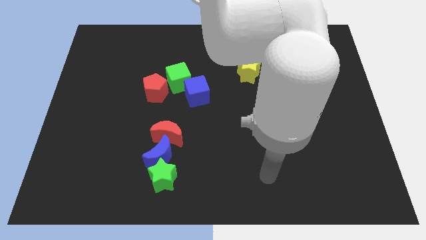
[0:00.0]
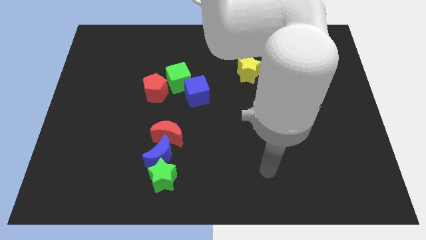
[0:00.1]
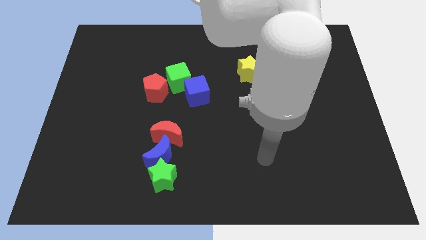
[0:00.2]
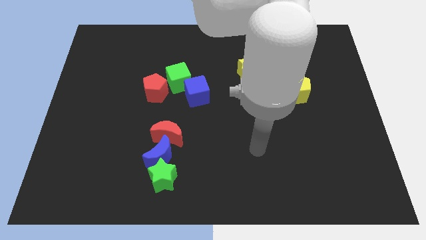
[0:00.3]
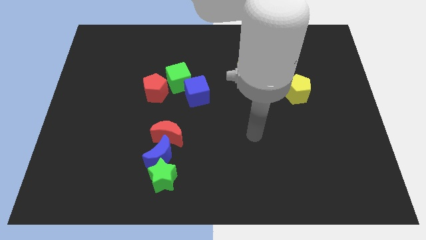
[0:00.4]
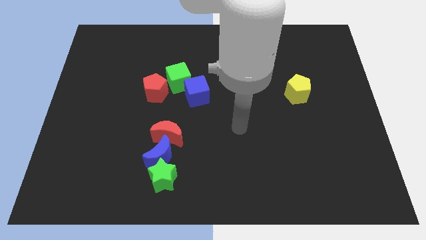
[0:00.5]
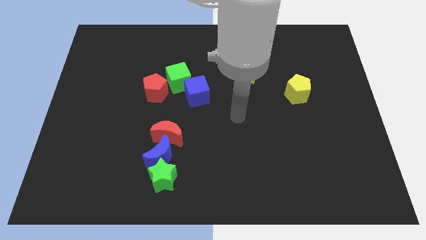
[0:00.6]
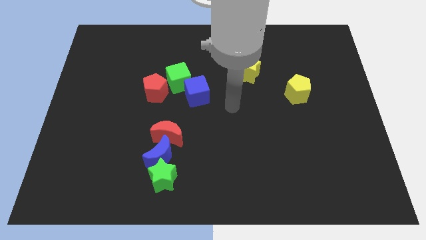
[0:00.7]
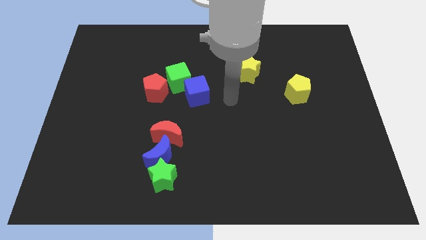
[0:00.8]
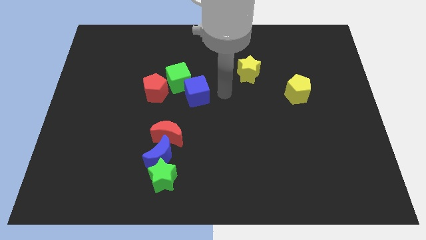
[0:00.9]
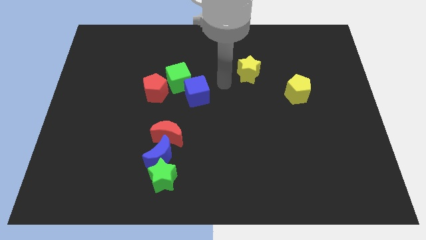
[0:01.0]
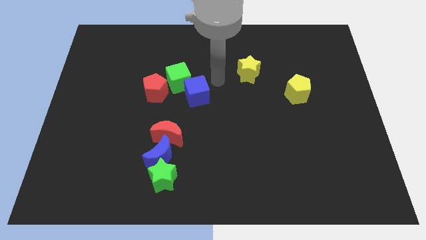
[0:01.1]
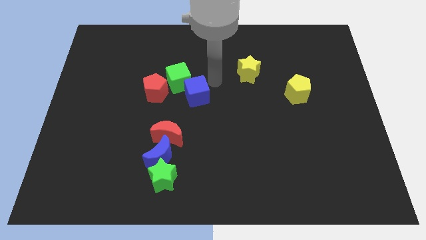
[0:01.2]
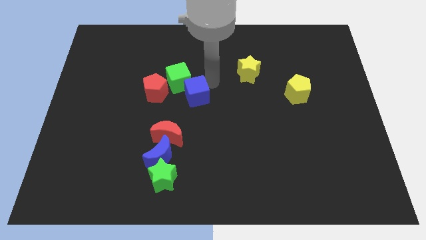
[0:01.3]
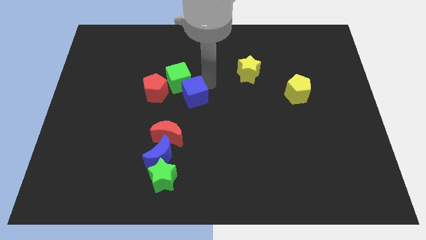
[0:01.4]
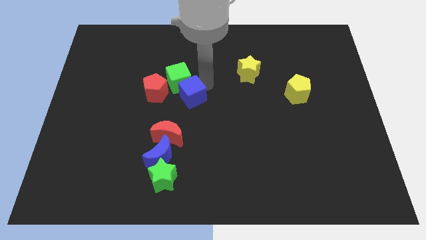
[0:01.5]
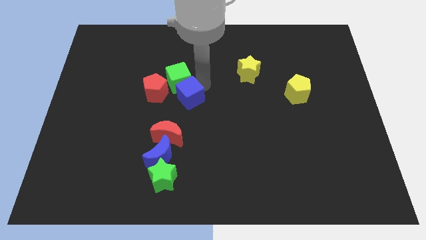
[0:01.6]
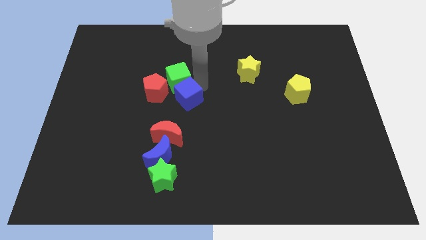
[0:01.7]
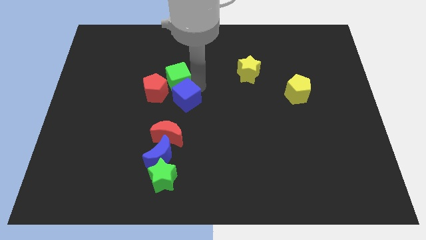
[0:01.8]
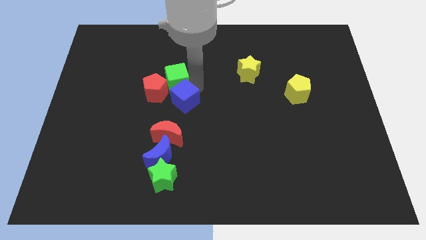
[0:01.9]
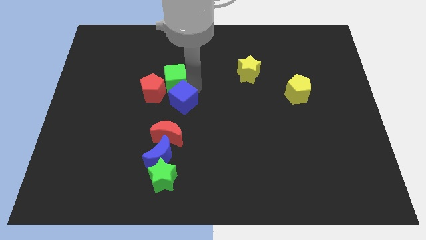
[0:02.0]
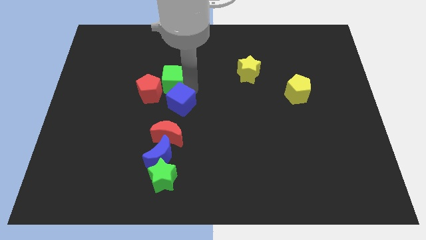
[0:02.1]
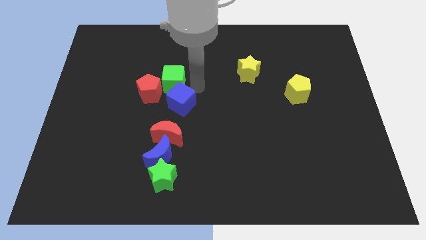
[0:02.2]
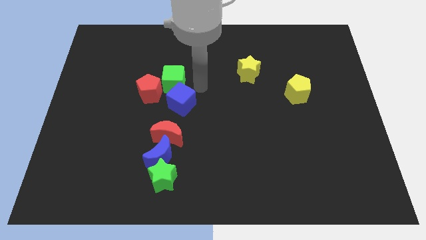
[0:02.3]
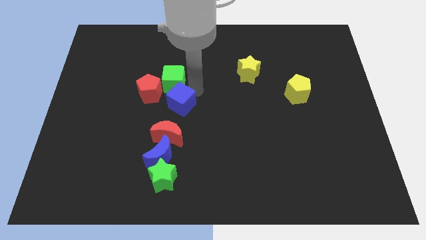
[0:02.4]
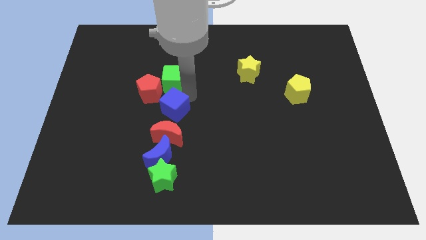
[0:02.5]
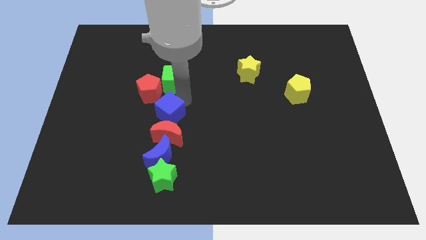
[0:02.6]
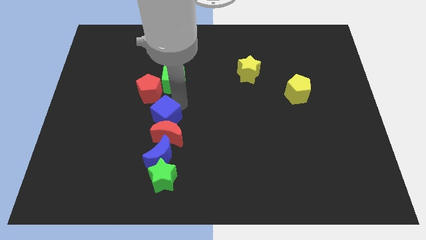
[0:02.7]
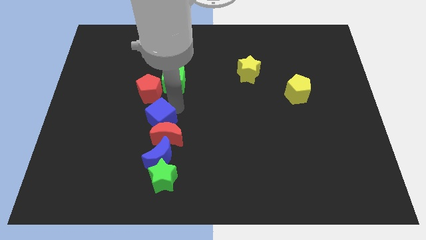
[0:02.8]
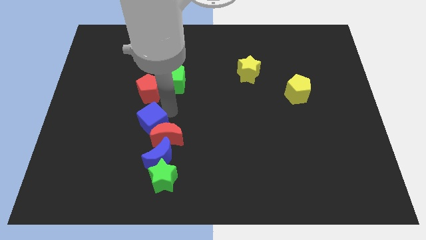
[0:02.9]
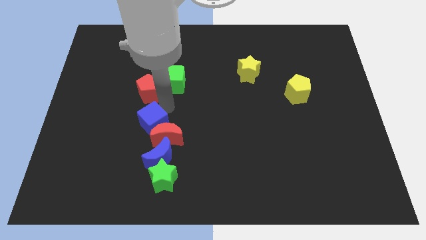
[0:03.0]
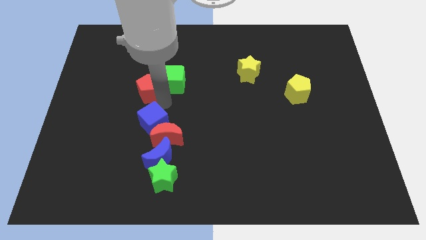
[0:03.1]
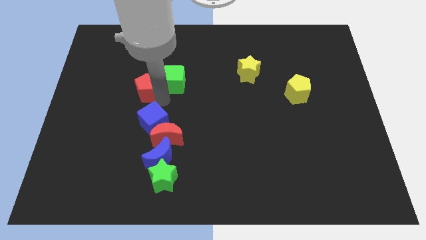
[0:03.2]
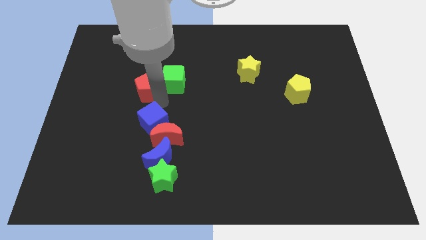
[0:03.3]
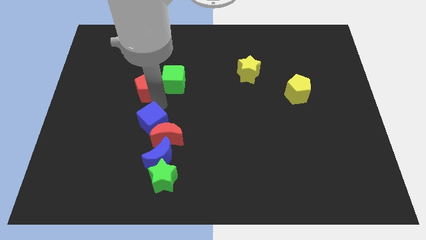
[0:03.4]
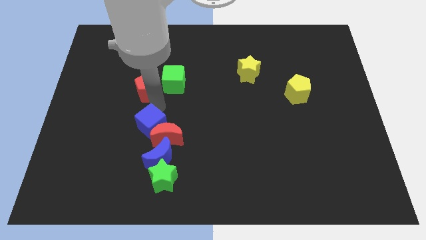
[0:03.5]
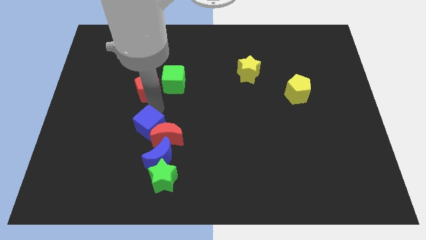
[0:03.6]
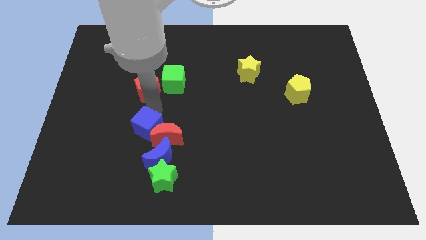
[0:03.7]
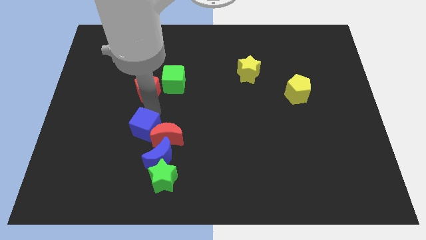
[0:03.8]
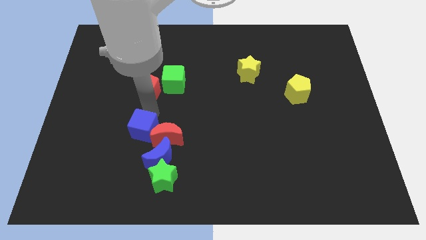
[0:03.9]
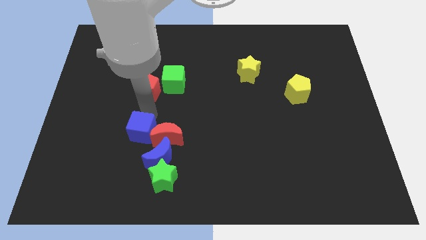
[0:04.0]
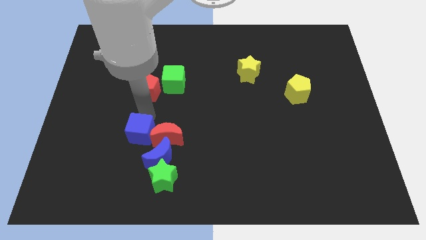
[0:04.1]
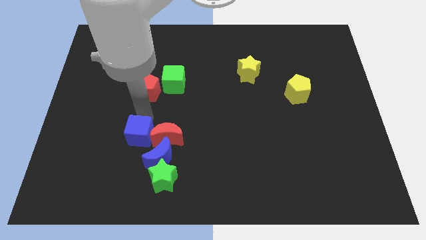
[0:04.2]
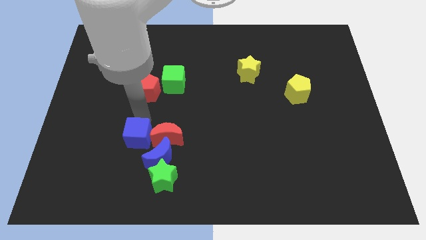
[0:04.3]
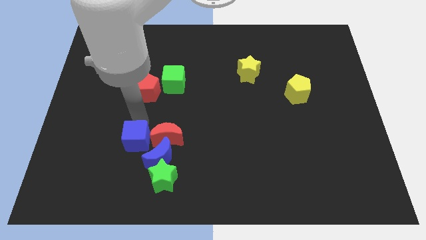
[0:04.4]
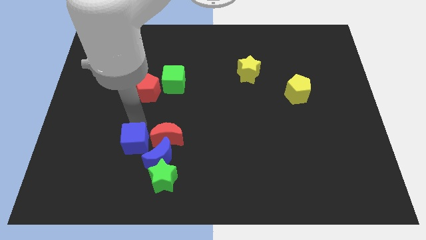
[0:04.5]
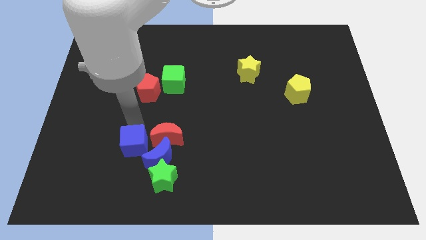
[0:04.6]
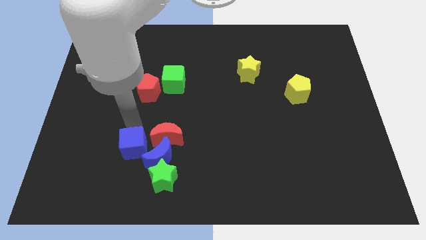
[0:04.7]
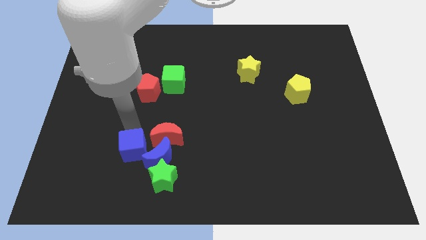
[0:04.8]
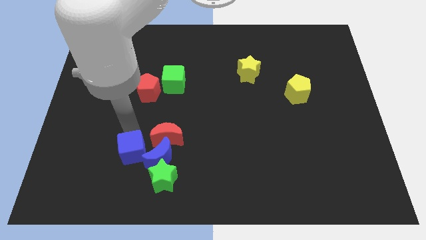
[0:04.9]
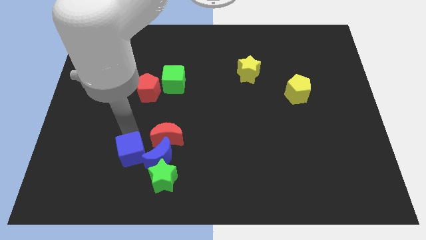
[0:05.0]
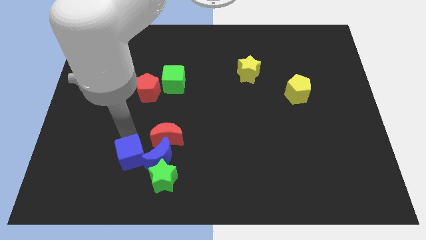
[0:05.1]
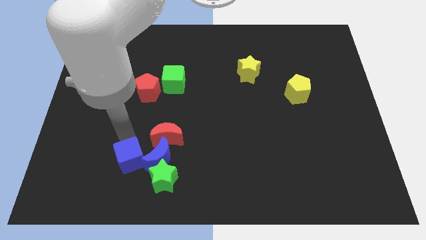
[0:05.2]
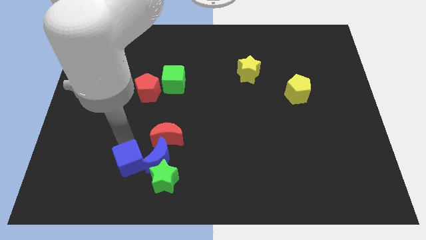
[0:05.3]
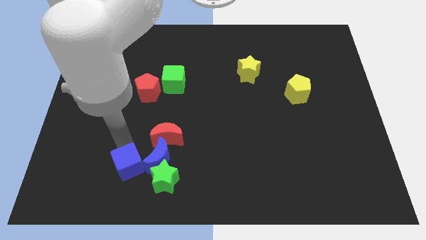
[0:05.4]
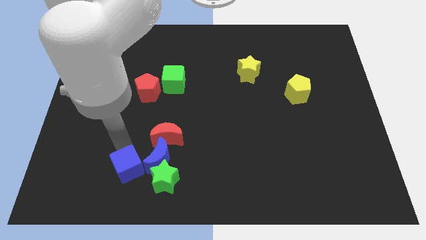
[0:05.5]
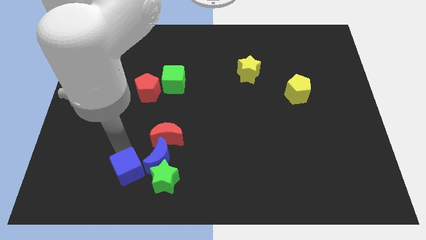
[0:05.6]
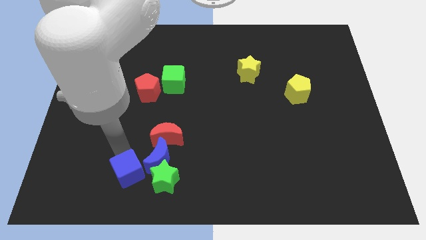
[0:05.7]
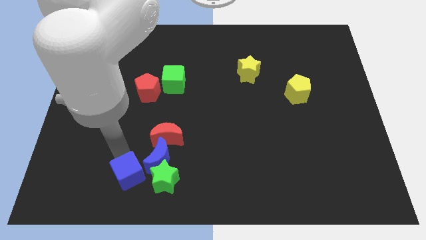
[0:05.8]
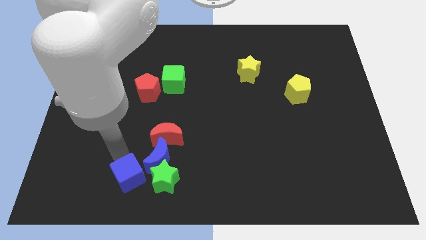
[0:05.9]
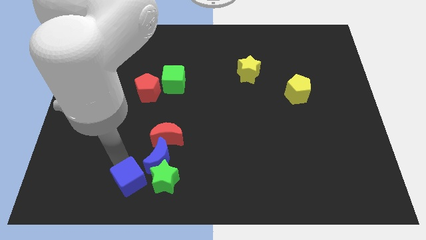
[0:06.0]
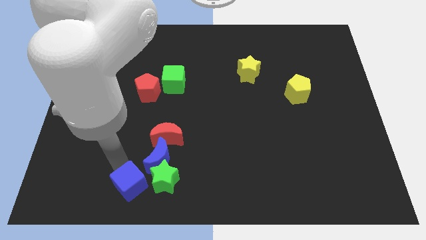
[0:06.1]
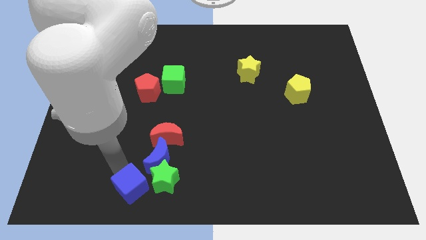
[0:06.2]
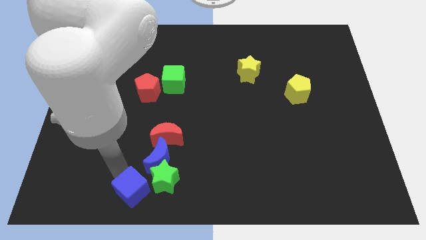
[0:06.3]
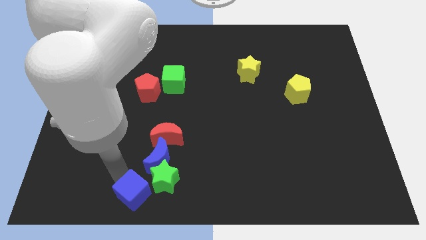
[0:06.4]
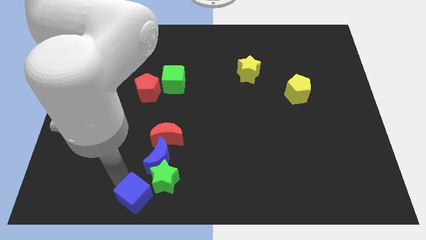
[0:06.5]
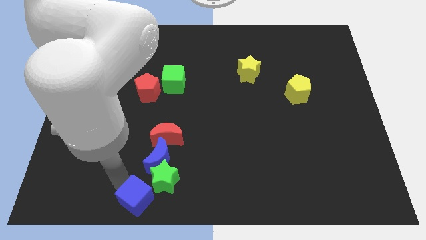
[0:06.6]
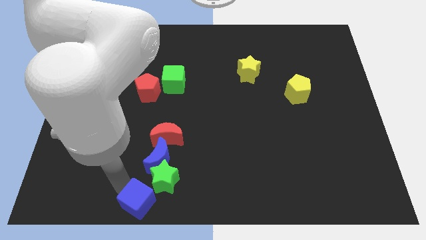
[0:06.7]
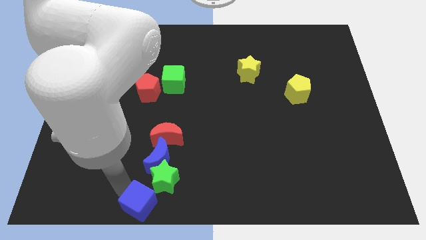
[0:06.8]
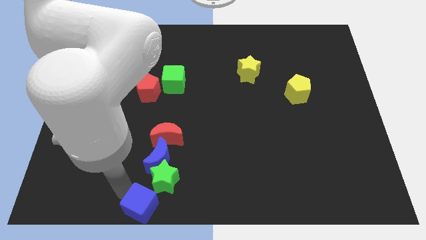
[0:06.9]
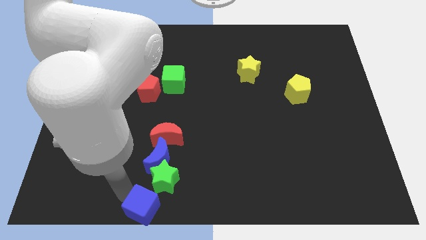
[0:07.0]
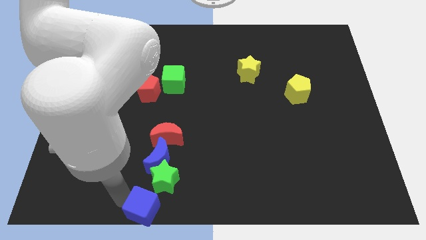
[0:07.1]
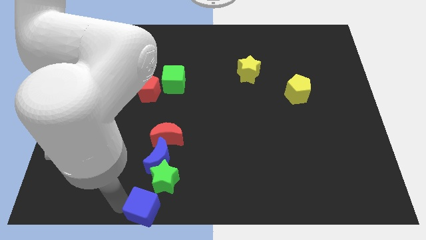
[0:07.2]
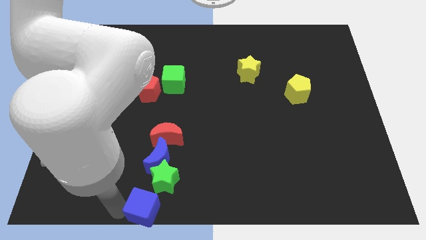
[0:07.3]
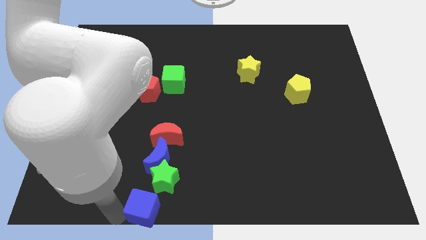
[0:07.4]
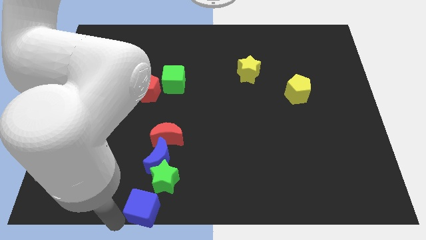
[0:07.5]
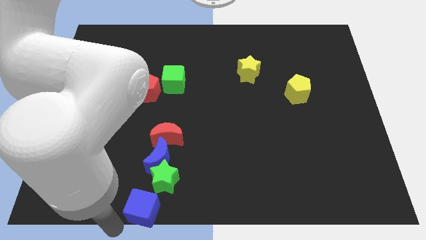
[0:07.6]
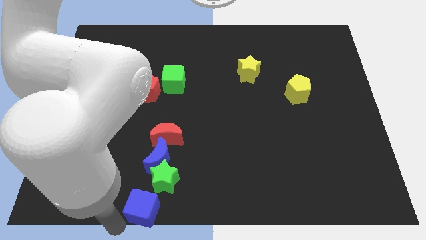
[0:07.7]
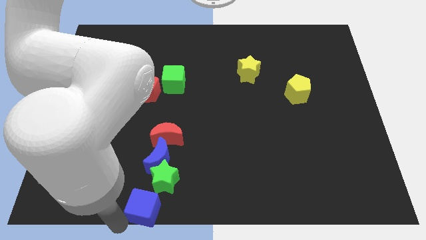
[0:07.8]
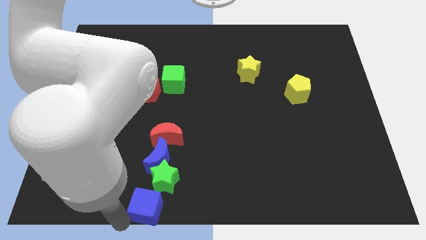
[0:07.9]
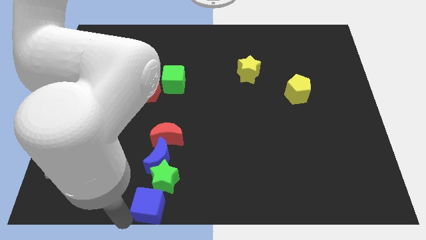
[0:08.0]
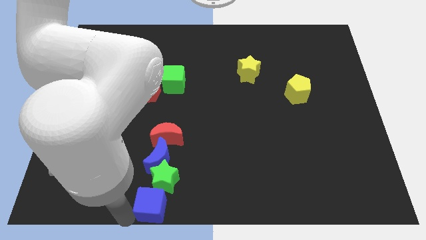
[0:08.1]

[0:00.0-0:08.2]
push the blue cube to the bottom side of the red moon

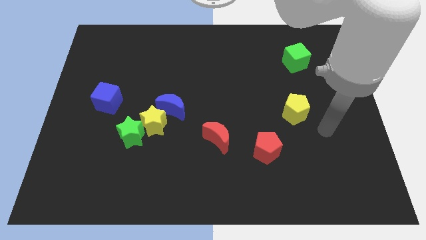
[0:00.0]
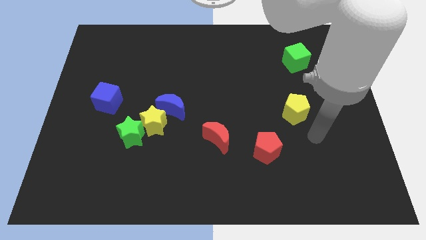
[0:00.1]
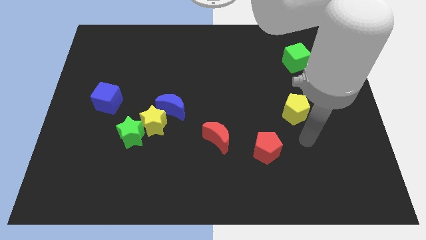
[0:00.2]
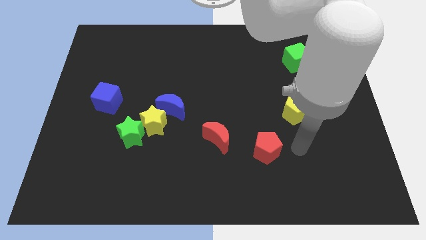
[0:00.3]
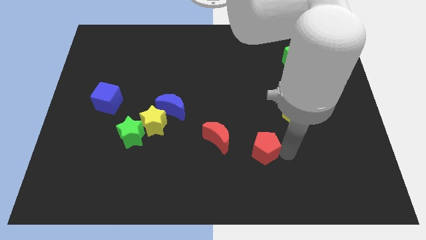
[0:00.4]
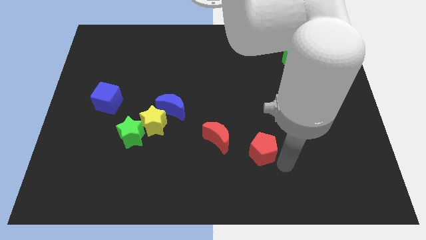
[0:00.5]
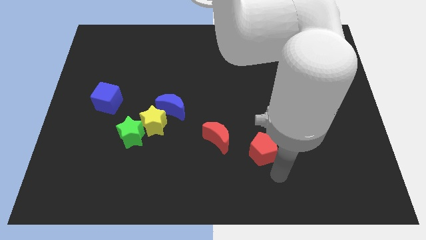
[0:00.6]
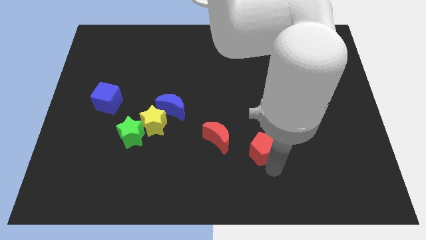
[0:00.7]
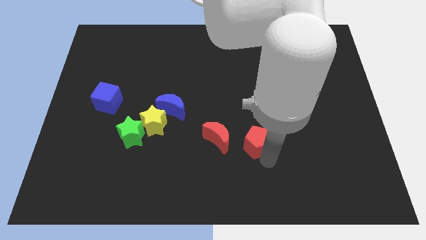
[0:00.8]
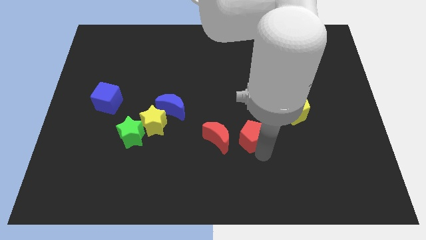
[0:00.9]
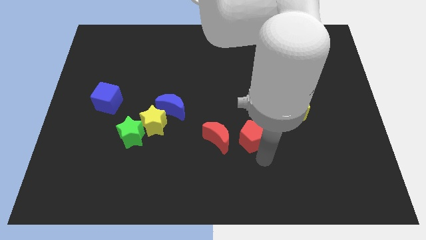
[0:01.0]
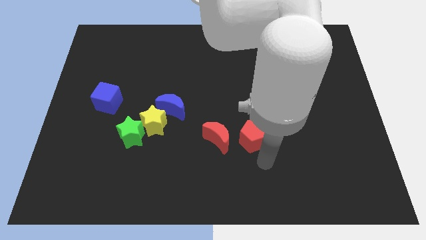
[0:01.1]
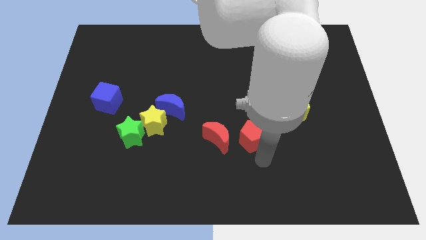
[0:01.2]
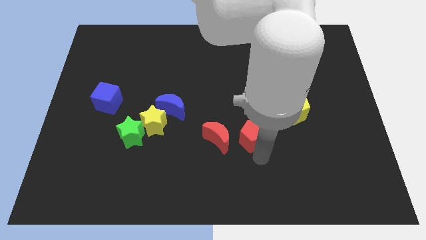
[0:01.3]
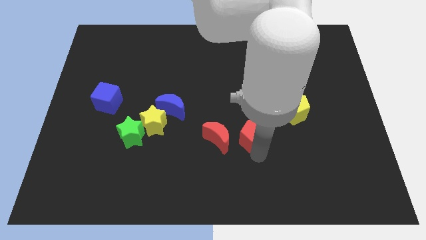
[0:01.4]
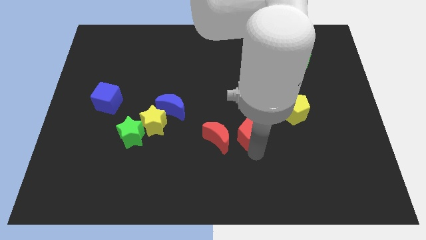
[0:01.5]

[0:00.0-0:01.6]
put the red pentagon diagonally up and to the right of the red moon
